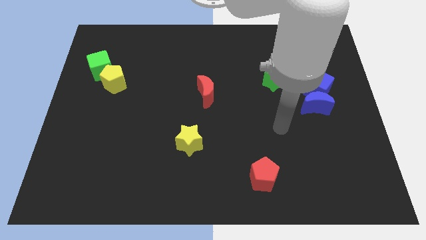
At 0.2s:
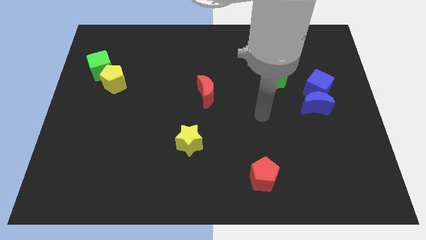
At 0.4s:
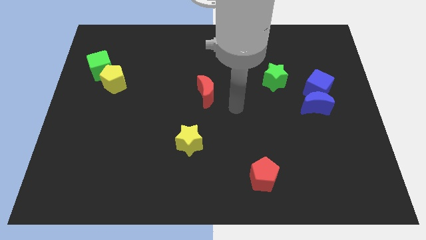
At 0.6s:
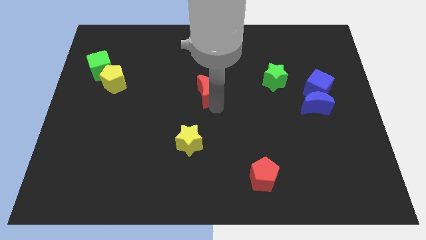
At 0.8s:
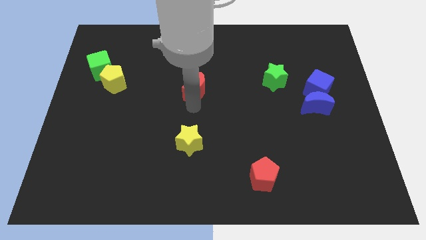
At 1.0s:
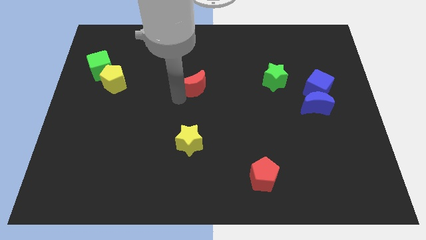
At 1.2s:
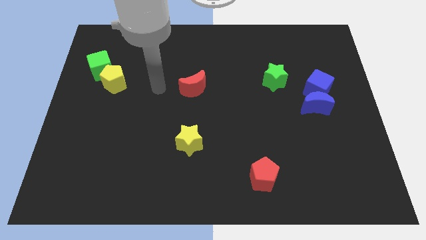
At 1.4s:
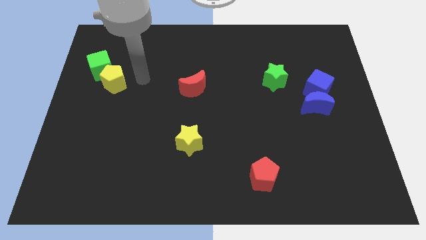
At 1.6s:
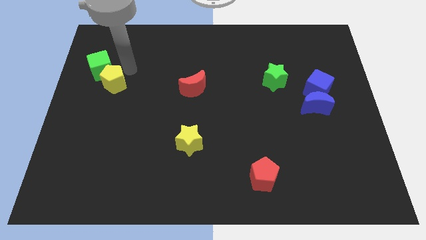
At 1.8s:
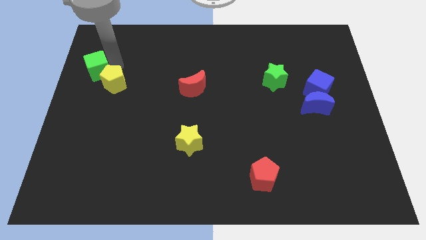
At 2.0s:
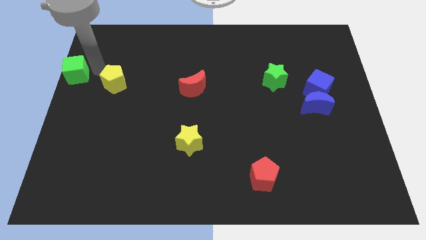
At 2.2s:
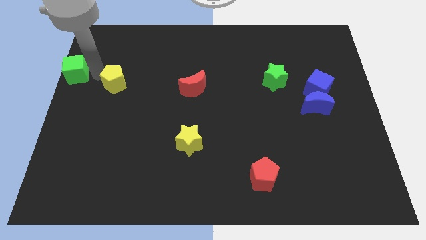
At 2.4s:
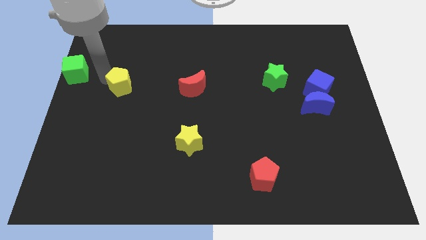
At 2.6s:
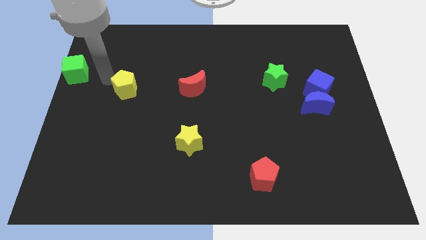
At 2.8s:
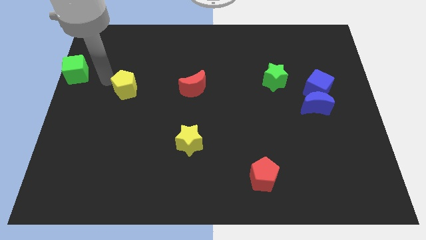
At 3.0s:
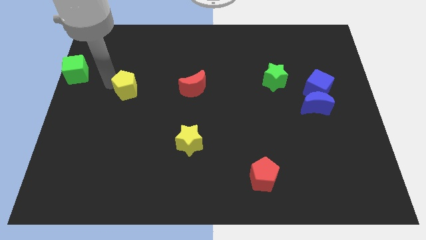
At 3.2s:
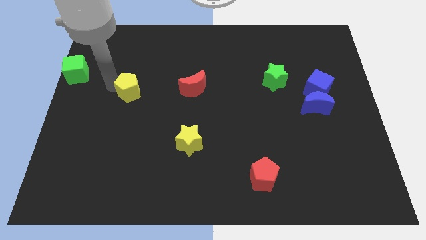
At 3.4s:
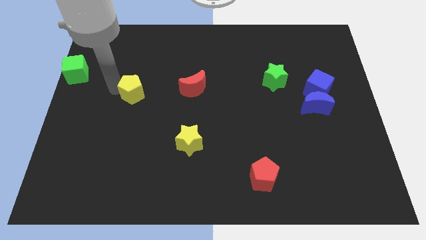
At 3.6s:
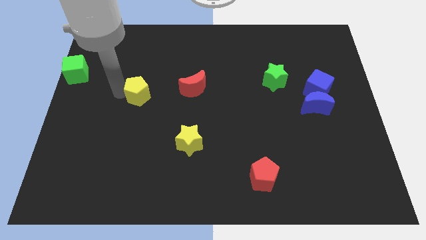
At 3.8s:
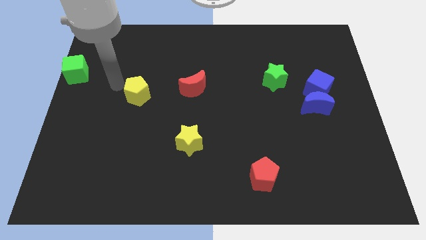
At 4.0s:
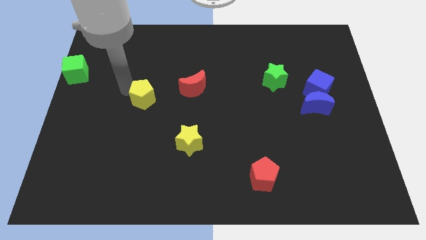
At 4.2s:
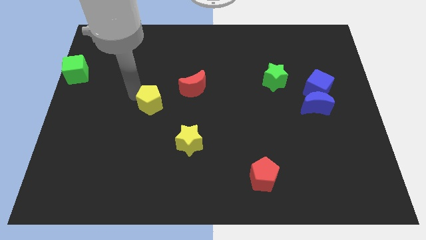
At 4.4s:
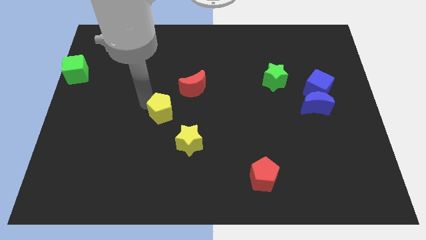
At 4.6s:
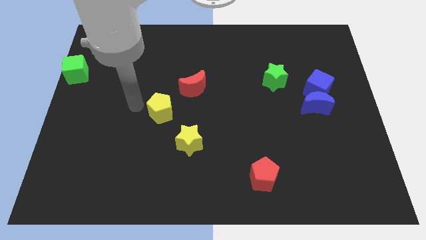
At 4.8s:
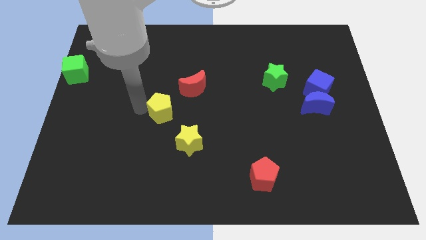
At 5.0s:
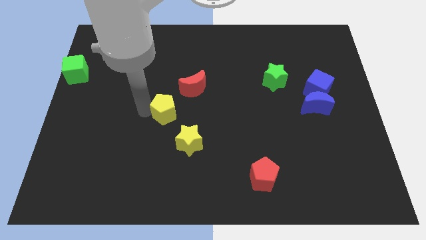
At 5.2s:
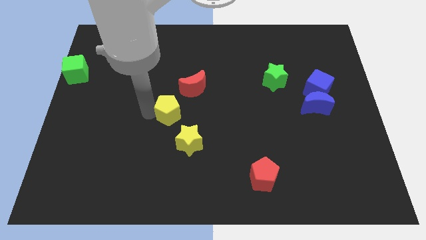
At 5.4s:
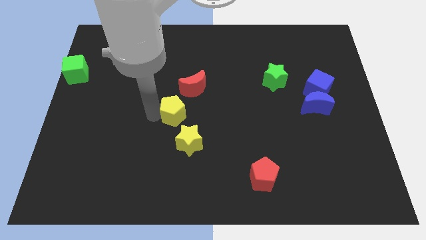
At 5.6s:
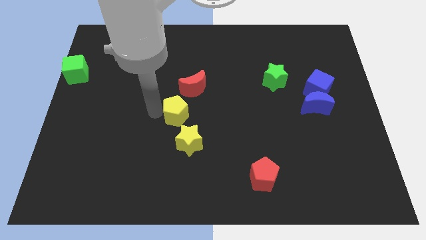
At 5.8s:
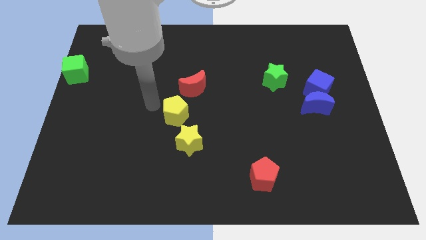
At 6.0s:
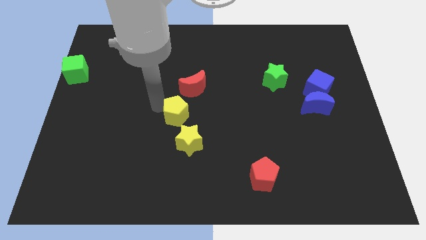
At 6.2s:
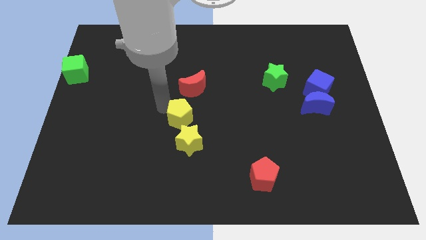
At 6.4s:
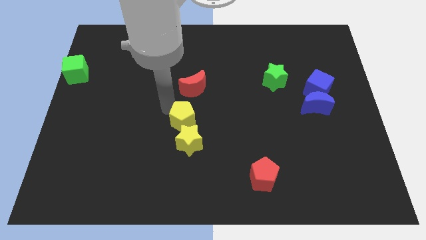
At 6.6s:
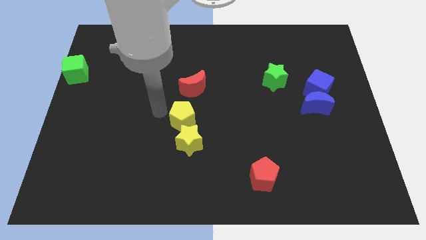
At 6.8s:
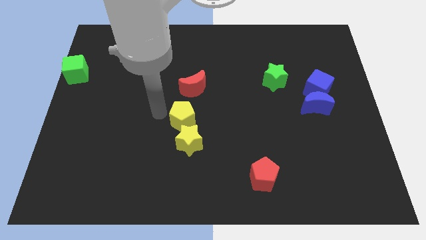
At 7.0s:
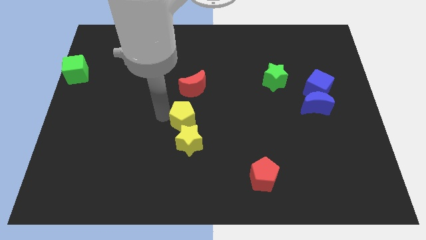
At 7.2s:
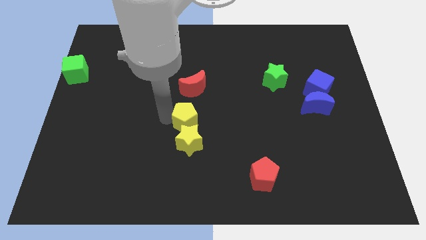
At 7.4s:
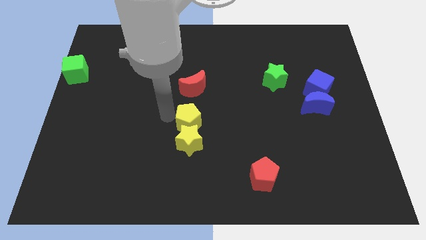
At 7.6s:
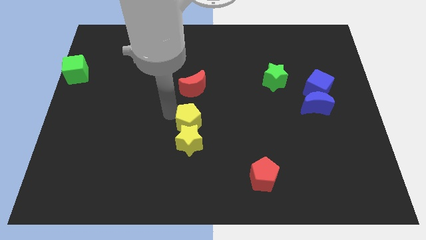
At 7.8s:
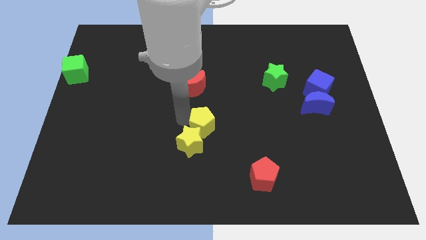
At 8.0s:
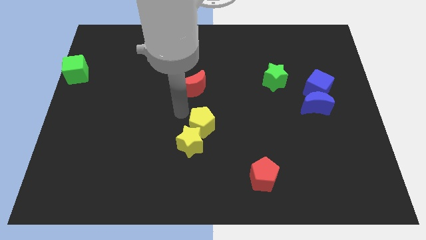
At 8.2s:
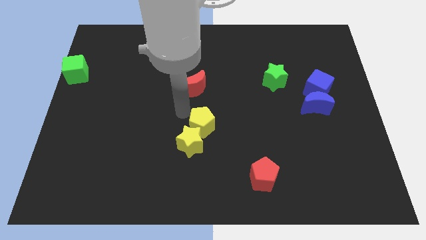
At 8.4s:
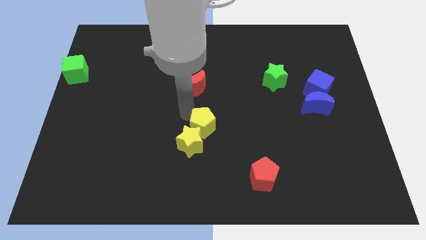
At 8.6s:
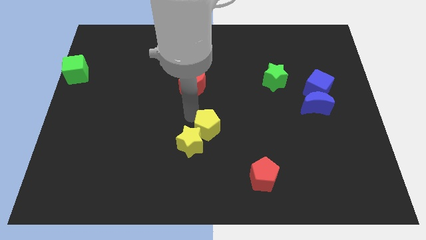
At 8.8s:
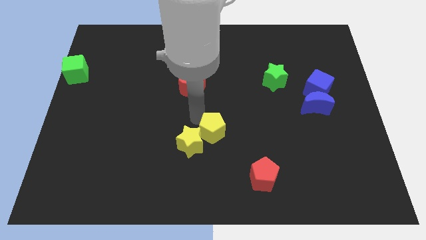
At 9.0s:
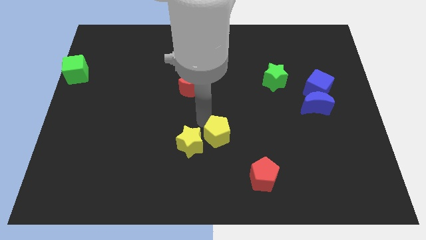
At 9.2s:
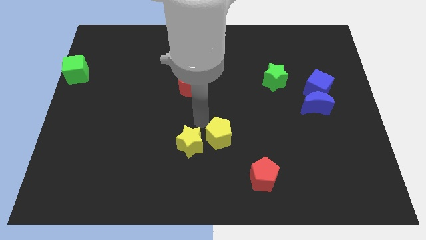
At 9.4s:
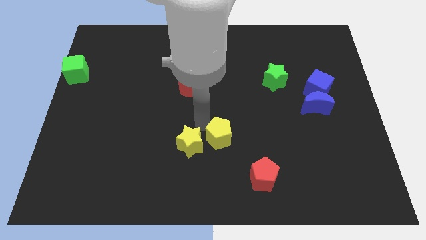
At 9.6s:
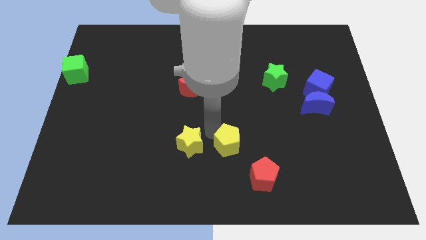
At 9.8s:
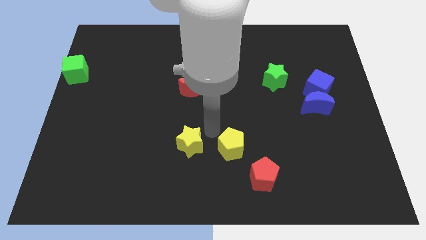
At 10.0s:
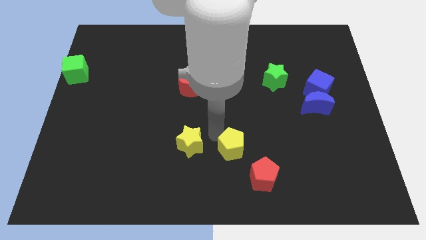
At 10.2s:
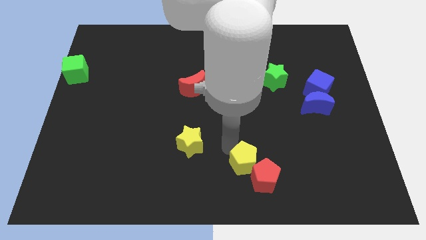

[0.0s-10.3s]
push the yellow pentagon towards the red pentagon

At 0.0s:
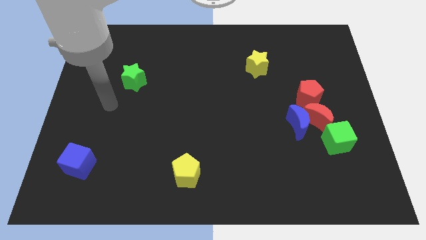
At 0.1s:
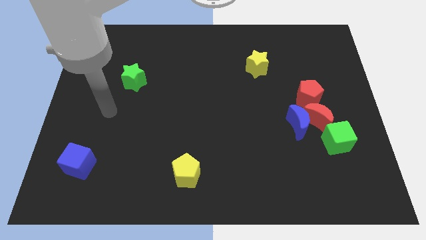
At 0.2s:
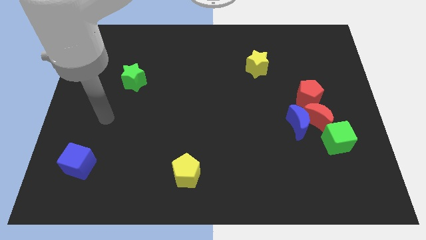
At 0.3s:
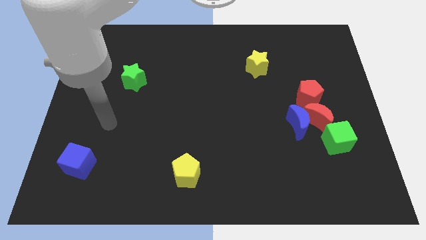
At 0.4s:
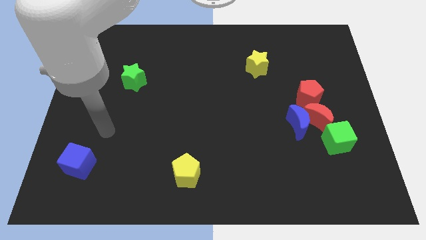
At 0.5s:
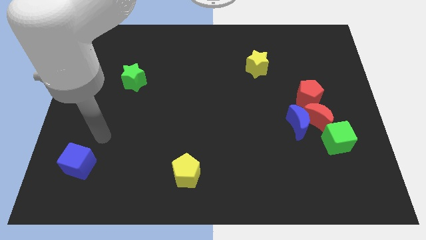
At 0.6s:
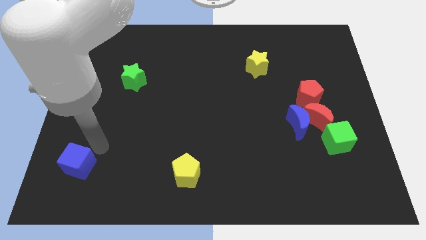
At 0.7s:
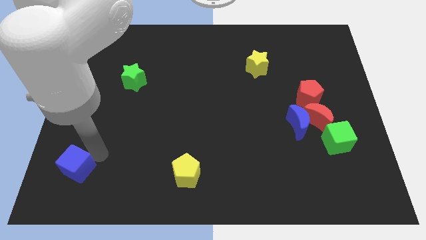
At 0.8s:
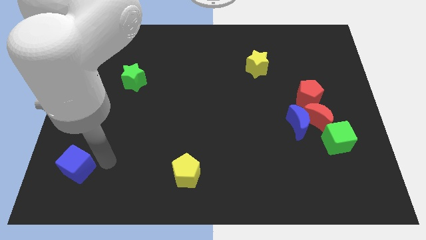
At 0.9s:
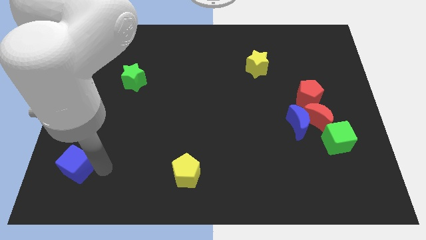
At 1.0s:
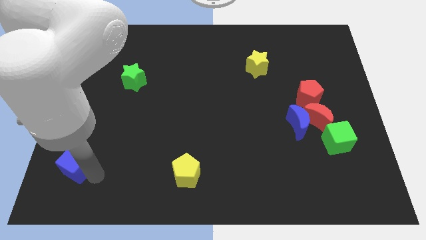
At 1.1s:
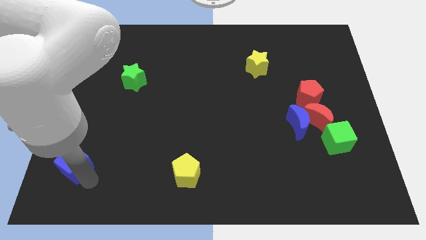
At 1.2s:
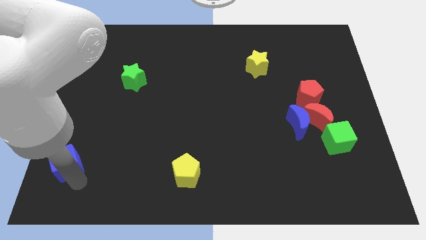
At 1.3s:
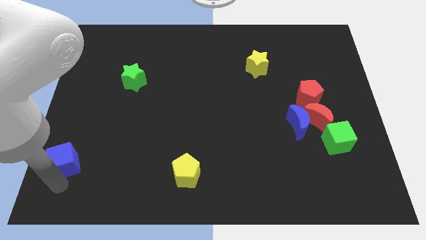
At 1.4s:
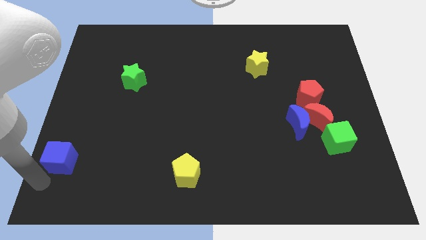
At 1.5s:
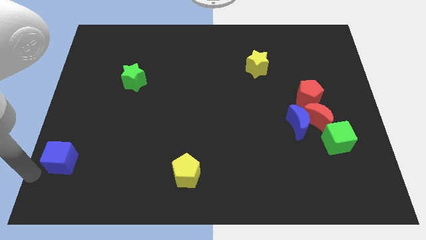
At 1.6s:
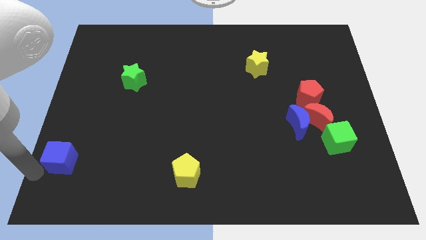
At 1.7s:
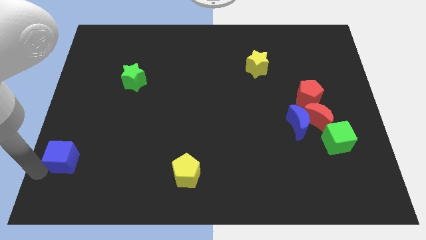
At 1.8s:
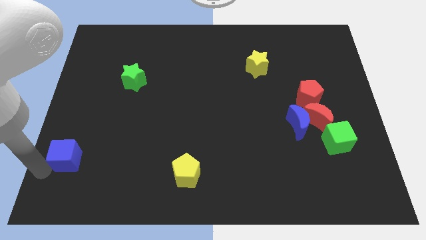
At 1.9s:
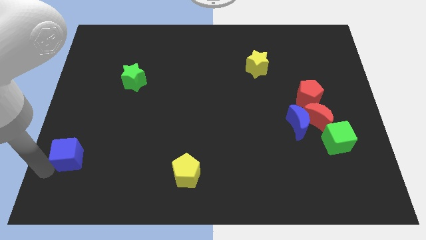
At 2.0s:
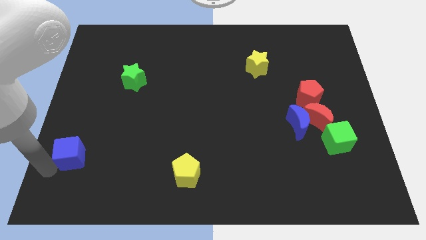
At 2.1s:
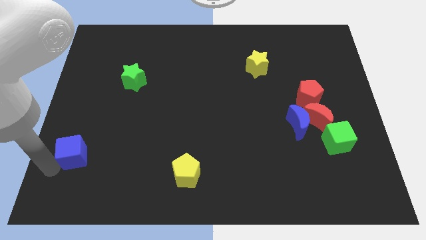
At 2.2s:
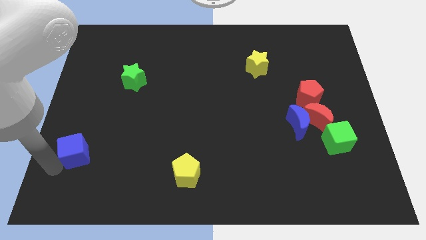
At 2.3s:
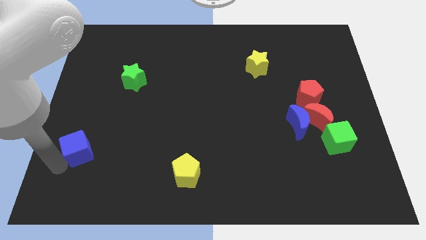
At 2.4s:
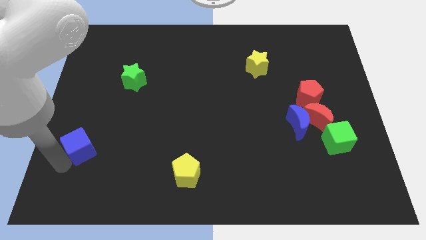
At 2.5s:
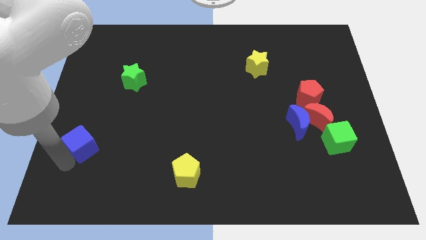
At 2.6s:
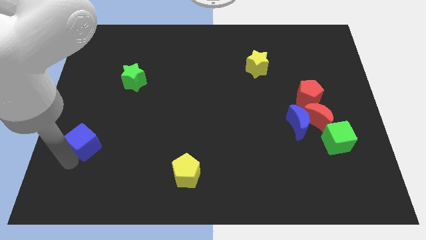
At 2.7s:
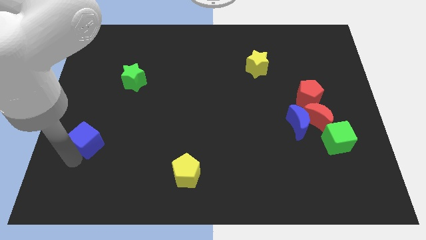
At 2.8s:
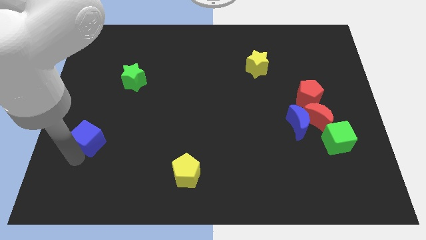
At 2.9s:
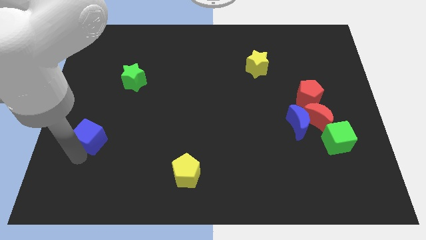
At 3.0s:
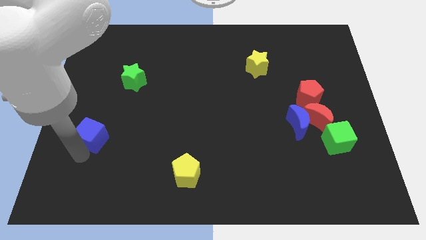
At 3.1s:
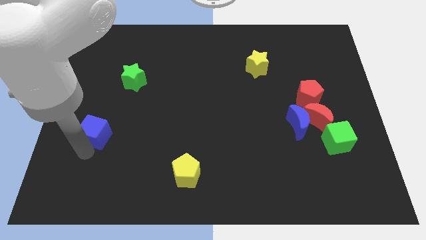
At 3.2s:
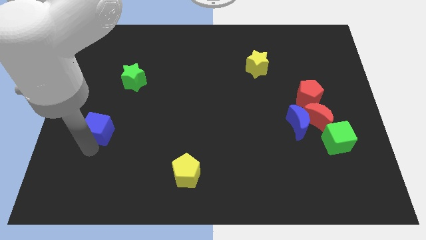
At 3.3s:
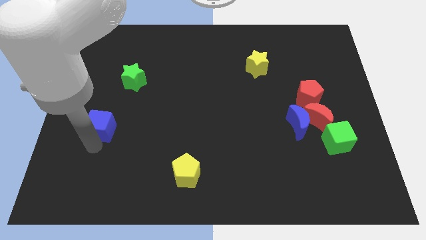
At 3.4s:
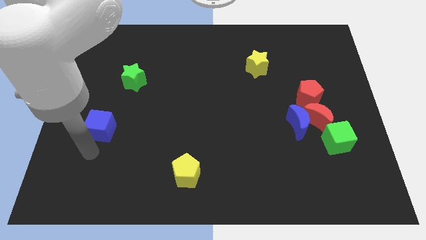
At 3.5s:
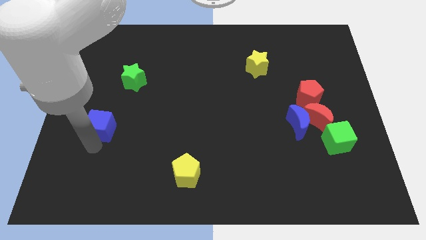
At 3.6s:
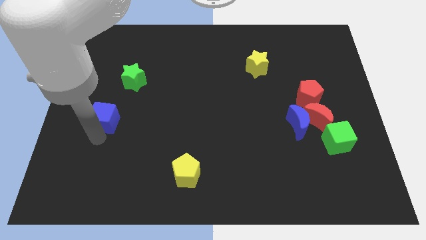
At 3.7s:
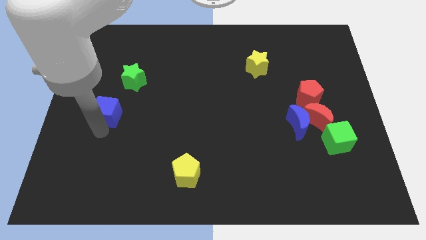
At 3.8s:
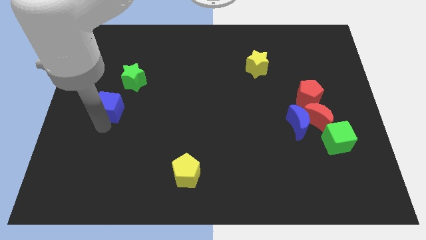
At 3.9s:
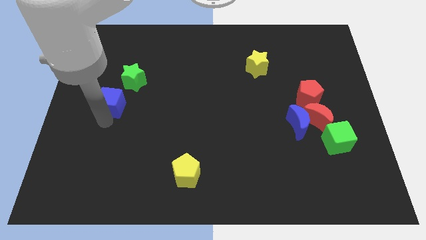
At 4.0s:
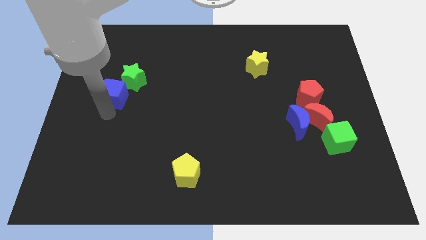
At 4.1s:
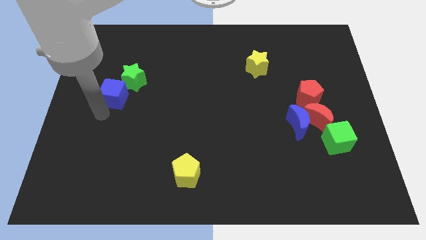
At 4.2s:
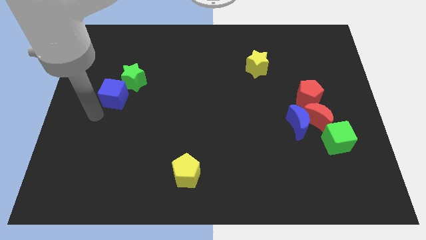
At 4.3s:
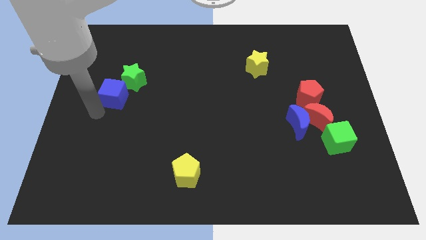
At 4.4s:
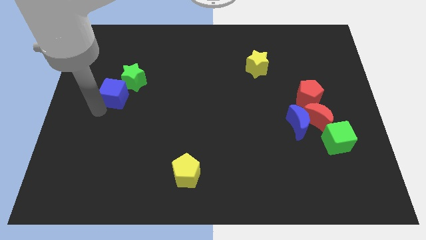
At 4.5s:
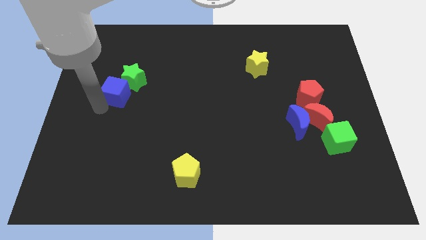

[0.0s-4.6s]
slide the blue cube to the green star
